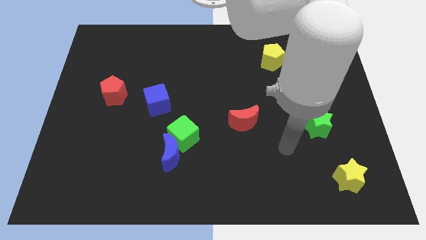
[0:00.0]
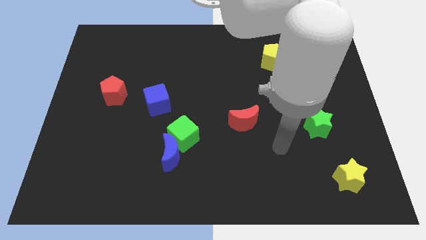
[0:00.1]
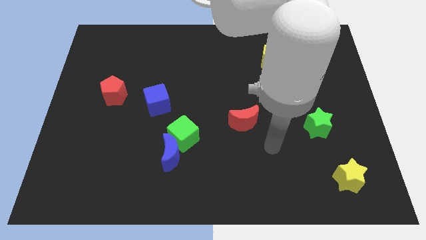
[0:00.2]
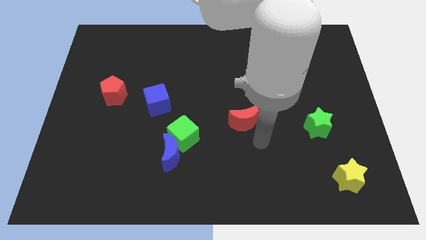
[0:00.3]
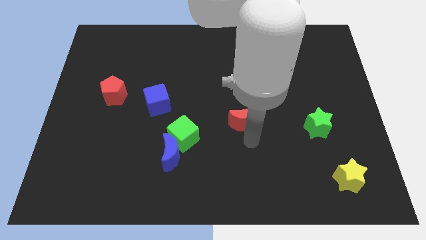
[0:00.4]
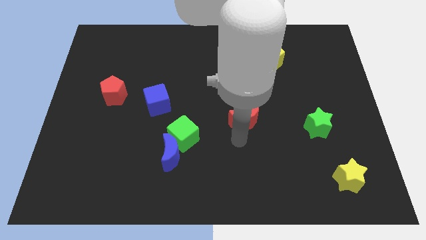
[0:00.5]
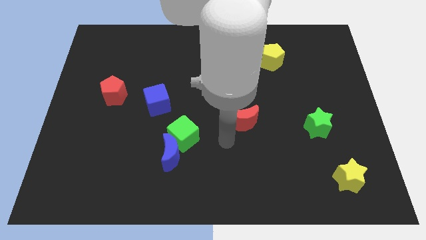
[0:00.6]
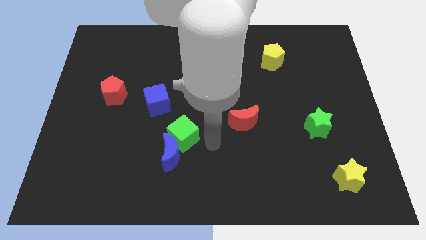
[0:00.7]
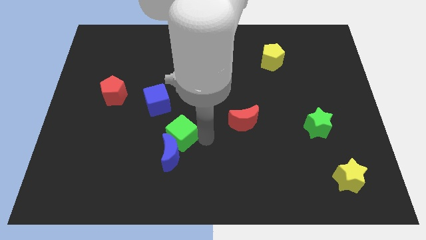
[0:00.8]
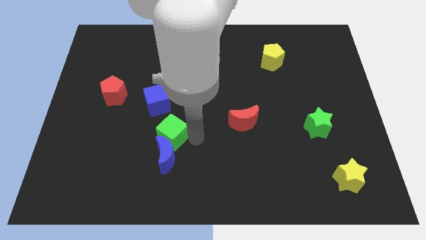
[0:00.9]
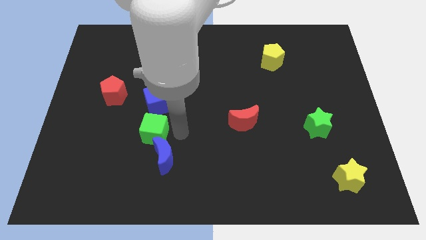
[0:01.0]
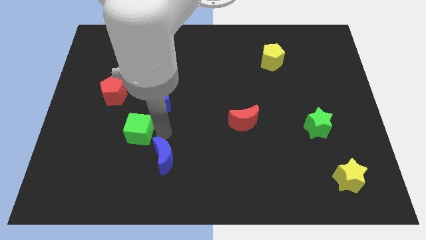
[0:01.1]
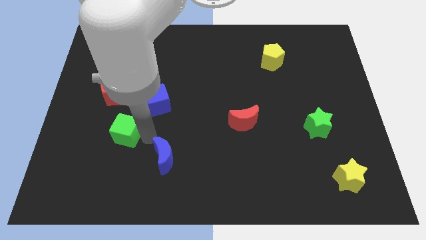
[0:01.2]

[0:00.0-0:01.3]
move the blue moon away from the green cube

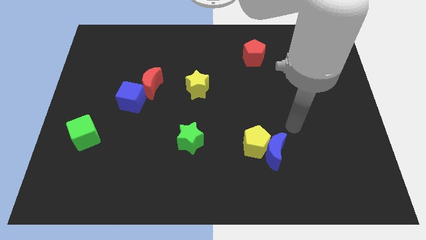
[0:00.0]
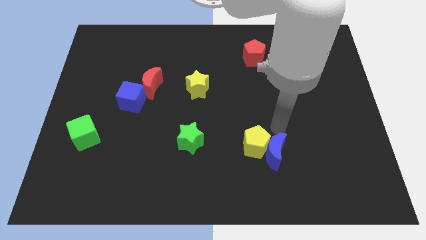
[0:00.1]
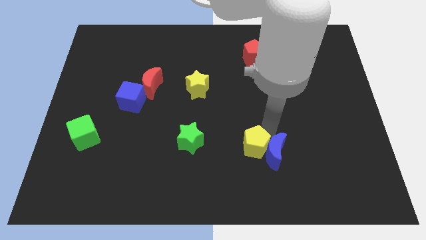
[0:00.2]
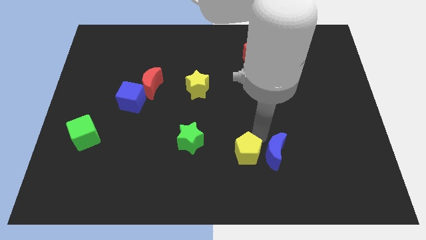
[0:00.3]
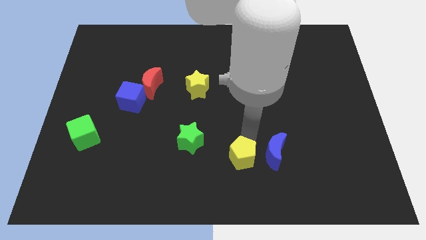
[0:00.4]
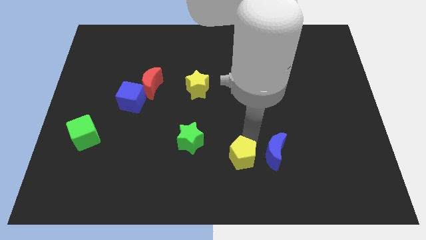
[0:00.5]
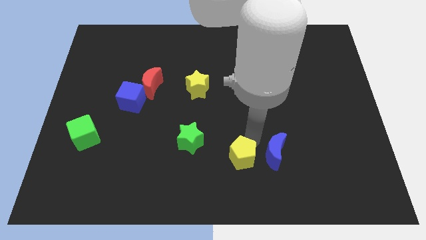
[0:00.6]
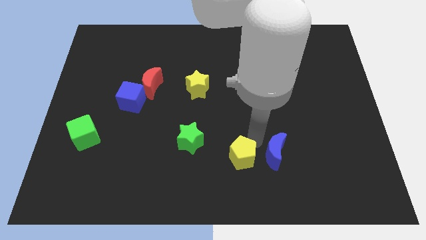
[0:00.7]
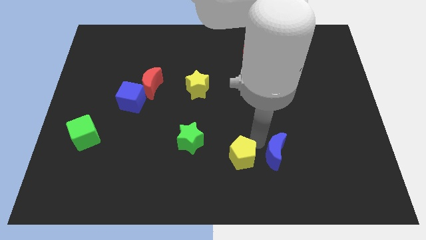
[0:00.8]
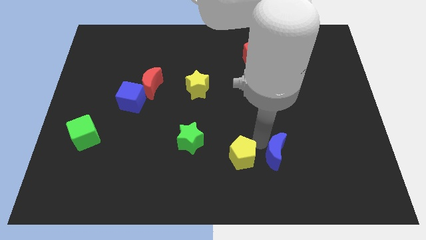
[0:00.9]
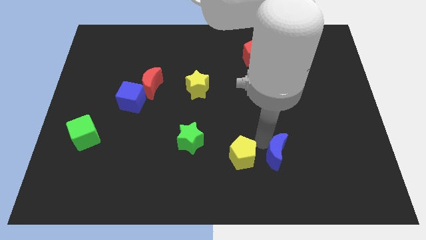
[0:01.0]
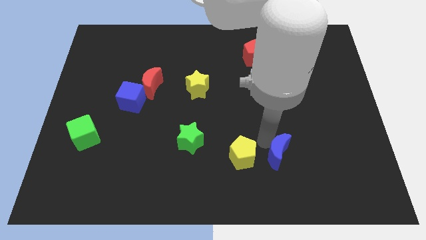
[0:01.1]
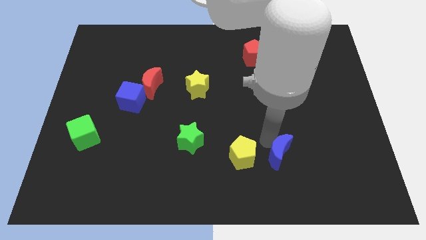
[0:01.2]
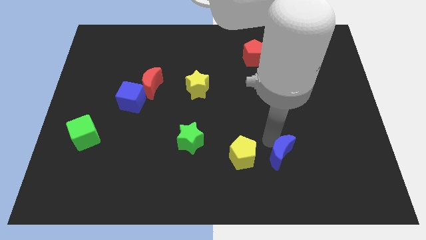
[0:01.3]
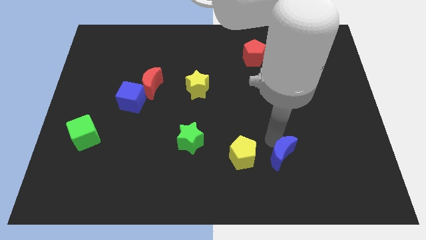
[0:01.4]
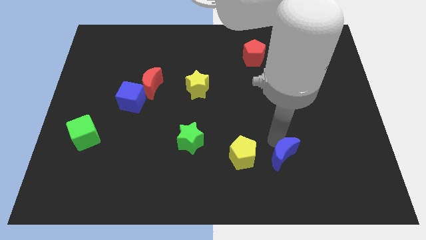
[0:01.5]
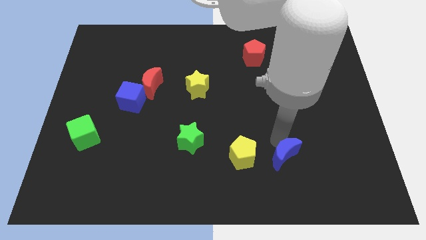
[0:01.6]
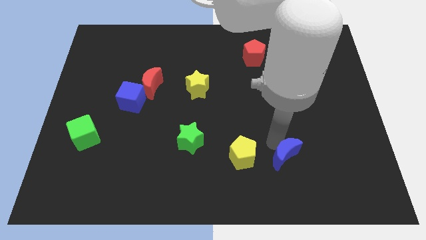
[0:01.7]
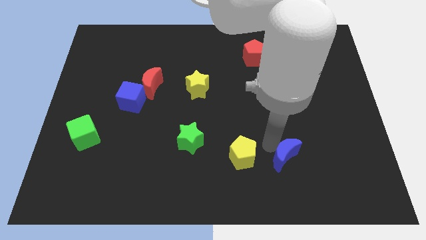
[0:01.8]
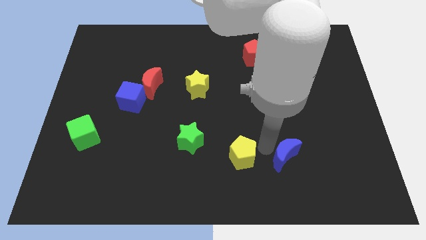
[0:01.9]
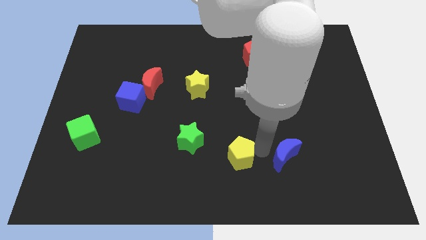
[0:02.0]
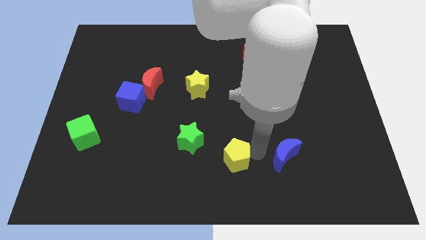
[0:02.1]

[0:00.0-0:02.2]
separate the blue moon from the yellow pentagon

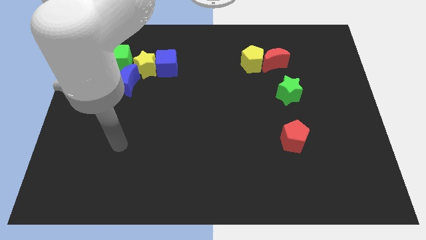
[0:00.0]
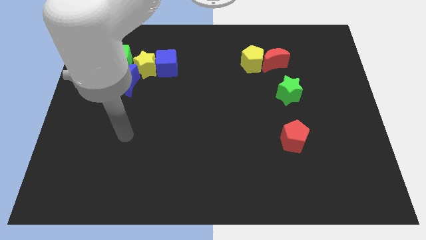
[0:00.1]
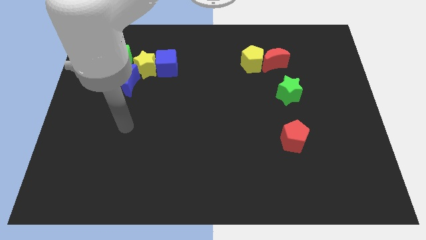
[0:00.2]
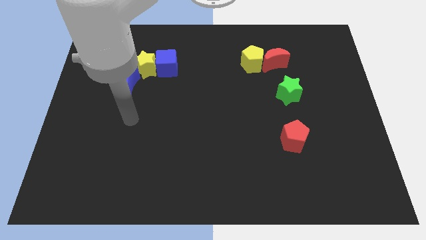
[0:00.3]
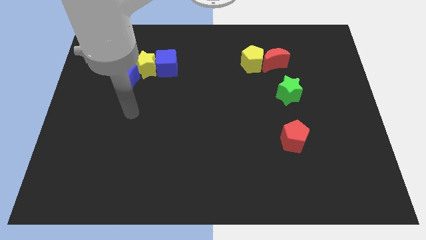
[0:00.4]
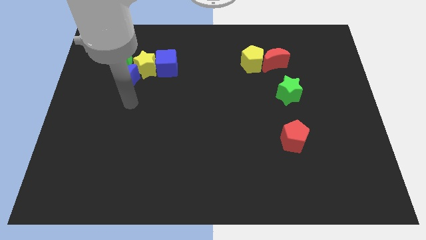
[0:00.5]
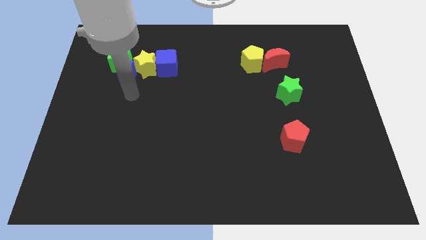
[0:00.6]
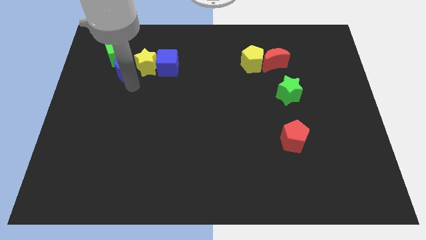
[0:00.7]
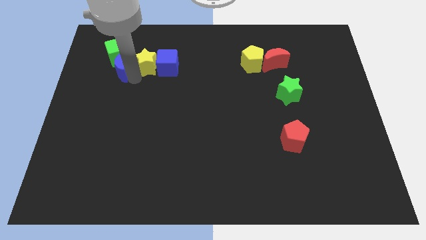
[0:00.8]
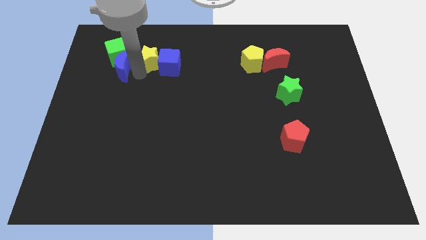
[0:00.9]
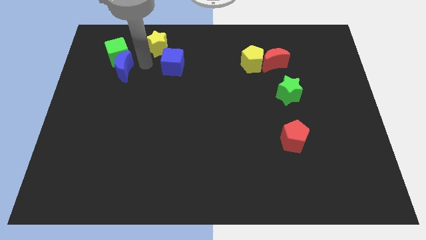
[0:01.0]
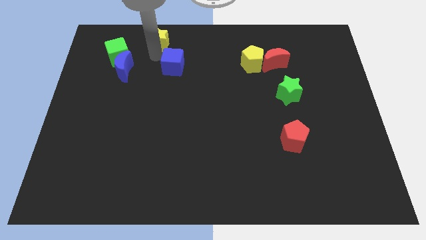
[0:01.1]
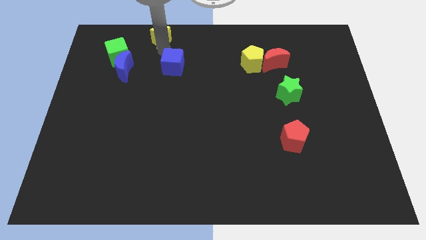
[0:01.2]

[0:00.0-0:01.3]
pull the blue cube apart from the yellow star

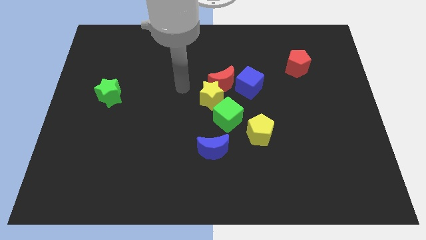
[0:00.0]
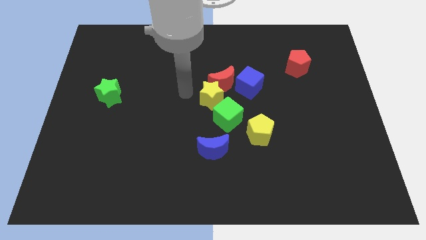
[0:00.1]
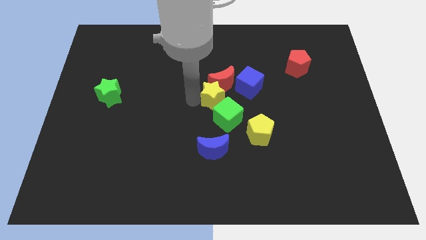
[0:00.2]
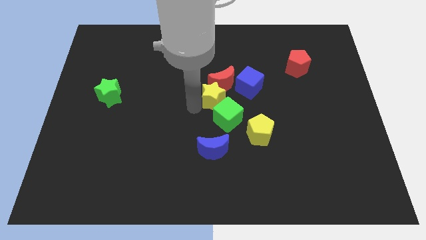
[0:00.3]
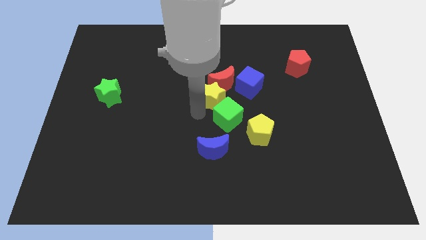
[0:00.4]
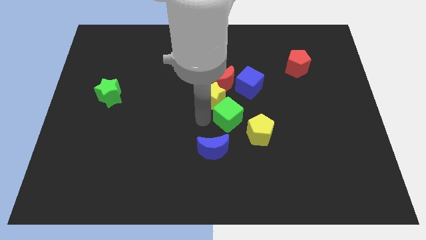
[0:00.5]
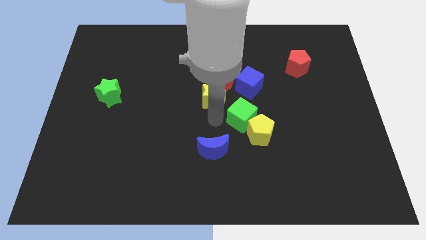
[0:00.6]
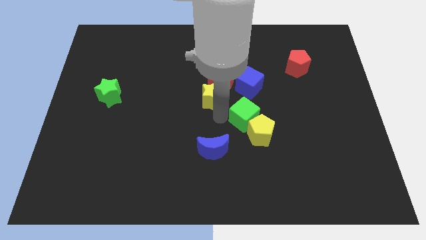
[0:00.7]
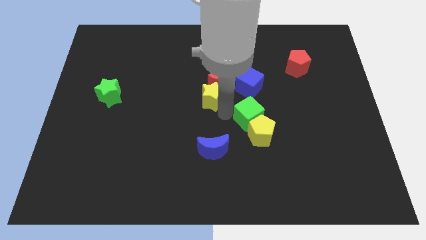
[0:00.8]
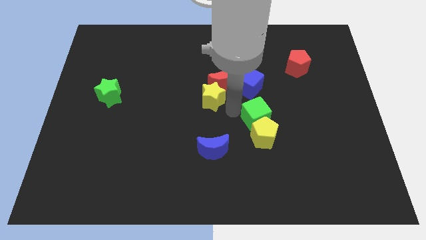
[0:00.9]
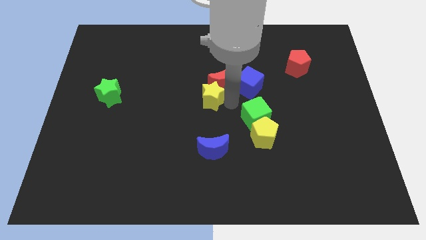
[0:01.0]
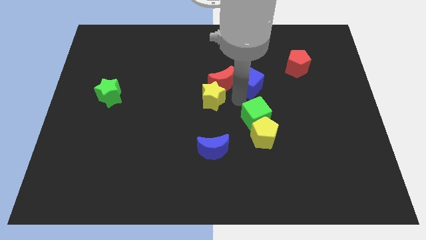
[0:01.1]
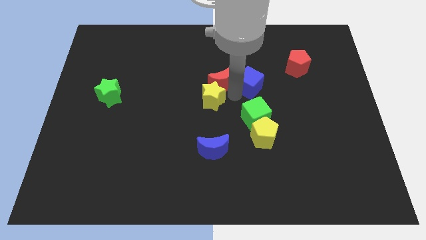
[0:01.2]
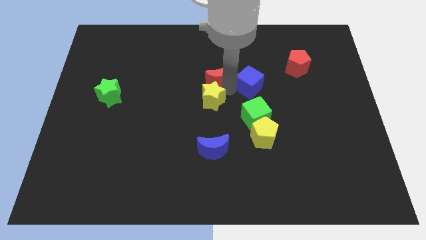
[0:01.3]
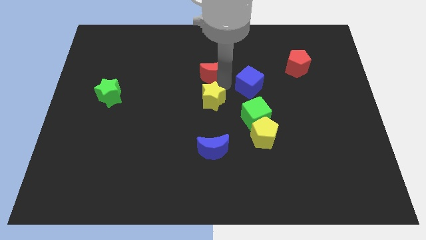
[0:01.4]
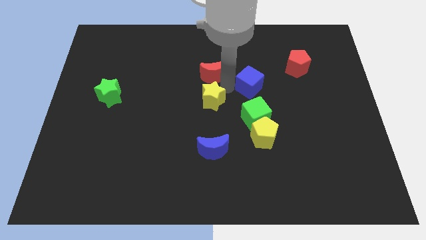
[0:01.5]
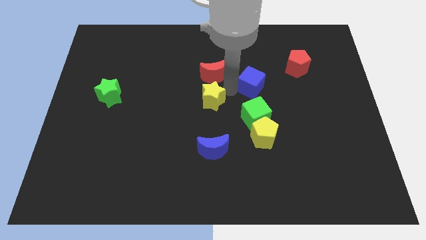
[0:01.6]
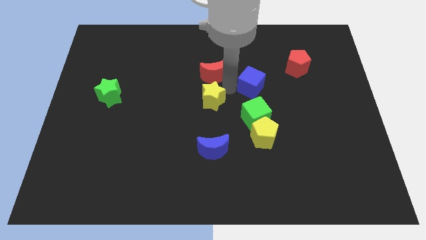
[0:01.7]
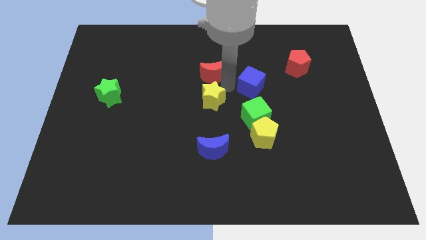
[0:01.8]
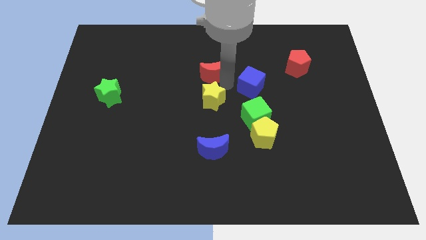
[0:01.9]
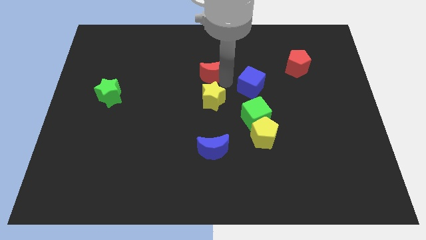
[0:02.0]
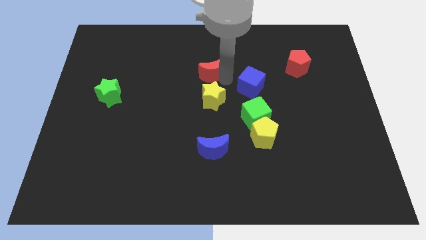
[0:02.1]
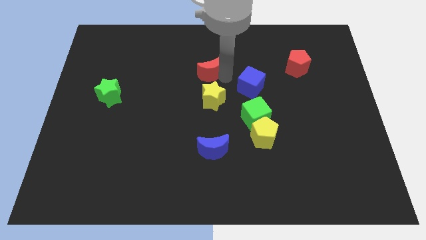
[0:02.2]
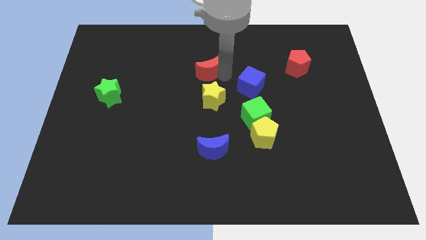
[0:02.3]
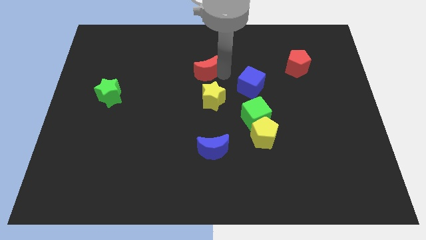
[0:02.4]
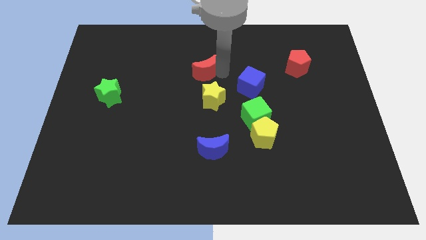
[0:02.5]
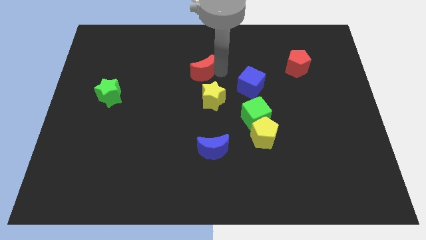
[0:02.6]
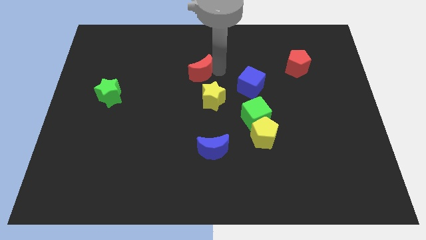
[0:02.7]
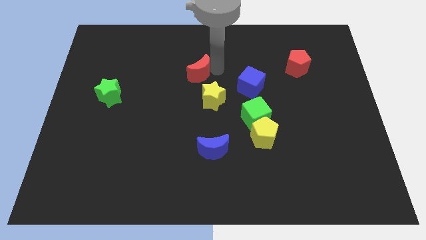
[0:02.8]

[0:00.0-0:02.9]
pull the red moon apart from the yellow star and blue cube

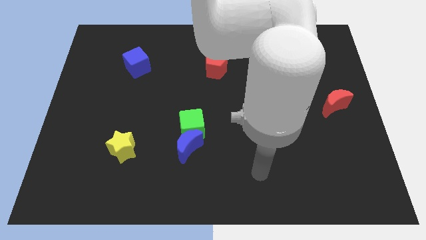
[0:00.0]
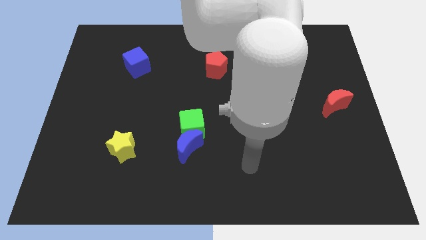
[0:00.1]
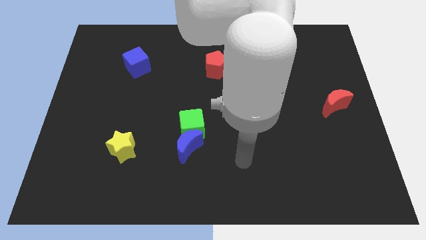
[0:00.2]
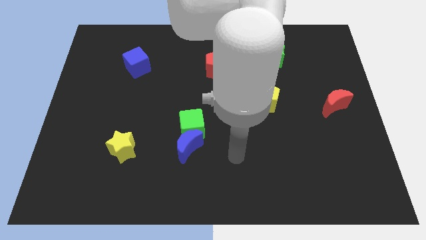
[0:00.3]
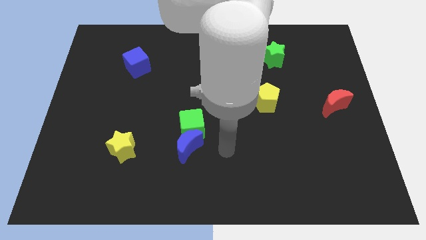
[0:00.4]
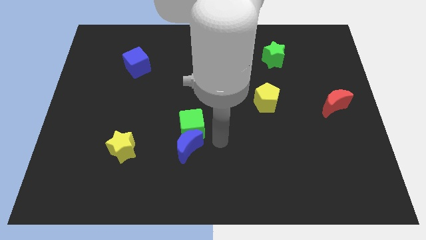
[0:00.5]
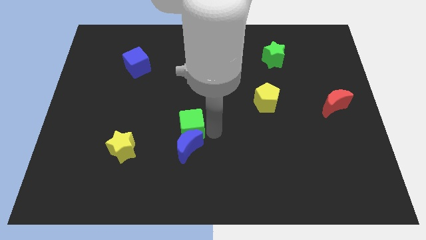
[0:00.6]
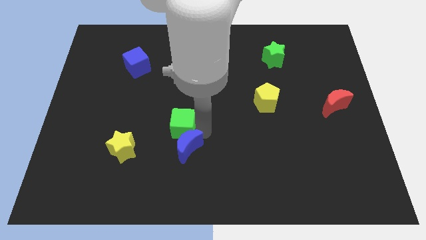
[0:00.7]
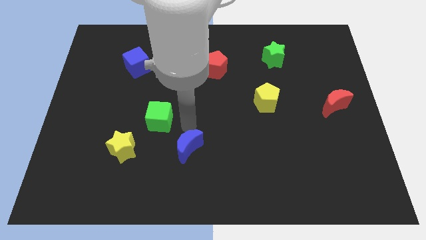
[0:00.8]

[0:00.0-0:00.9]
pull the blue moon apart from the green cube

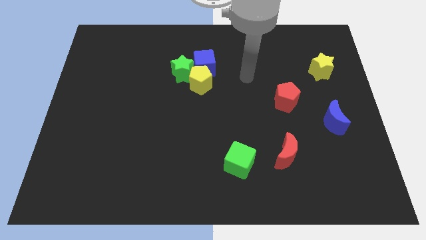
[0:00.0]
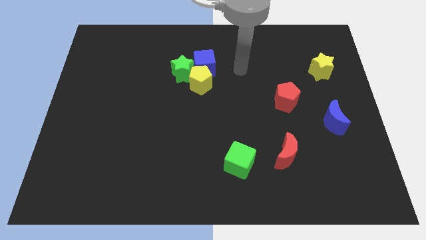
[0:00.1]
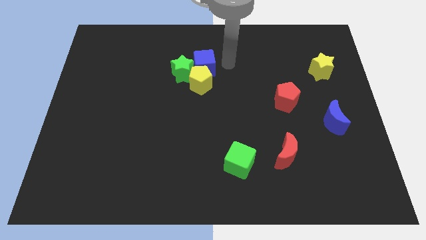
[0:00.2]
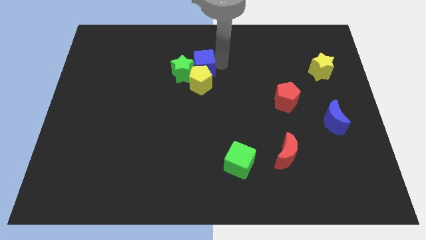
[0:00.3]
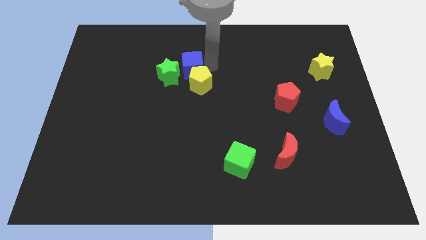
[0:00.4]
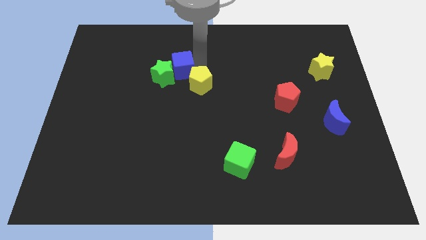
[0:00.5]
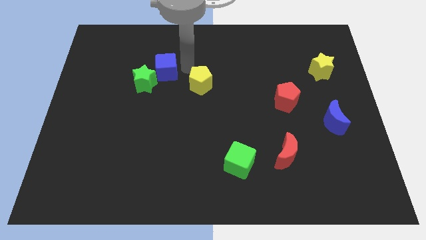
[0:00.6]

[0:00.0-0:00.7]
move the yellow pentagon away from the blue cube and green star
